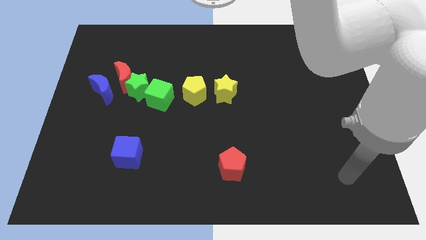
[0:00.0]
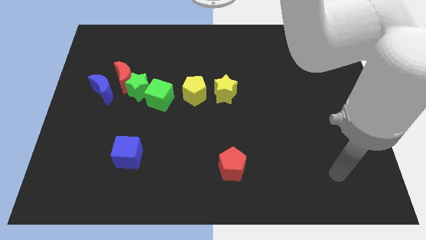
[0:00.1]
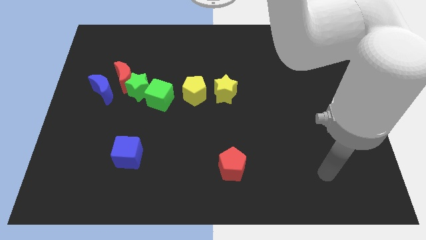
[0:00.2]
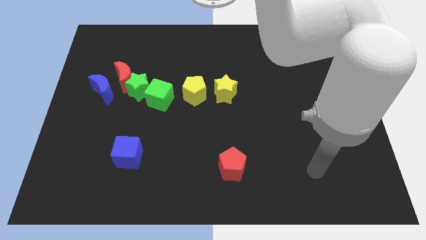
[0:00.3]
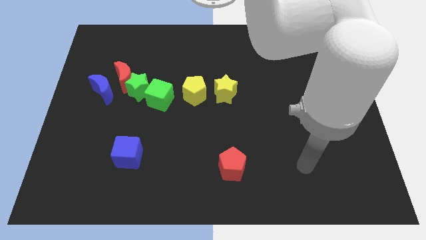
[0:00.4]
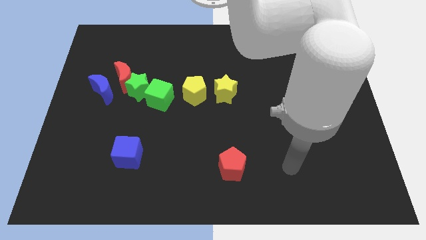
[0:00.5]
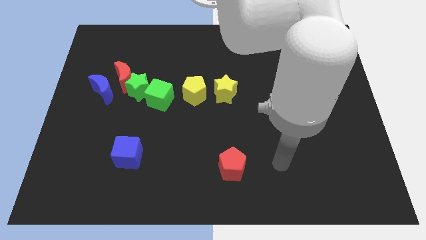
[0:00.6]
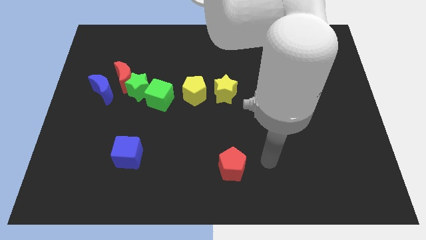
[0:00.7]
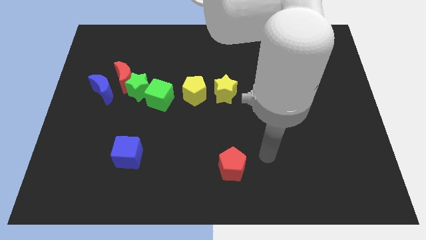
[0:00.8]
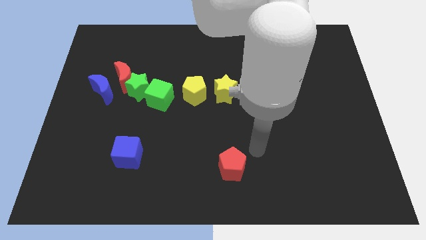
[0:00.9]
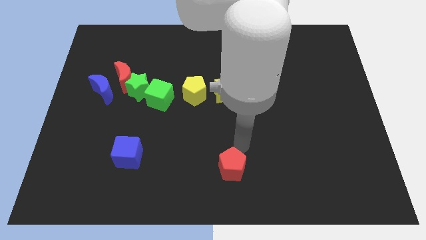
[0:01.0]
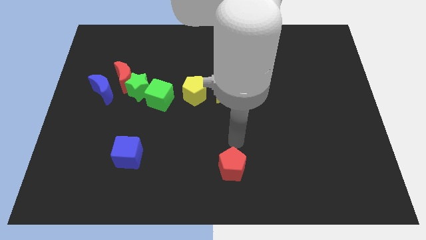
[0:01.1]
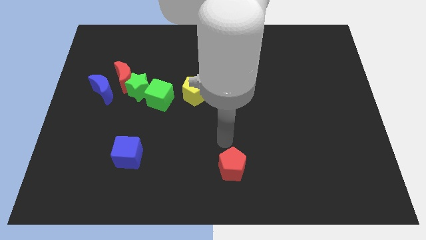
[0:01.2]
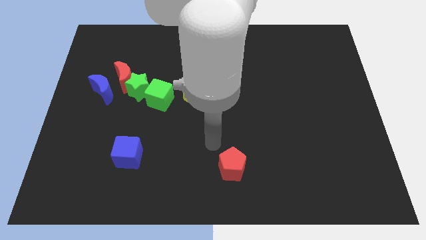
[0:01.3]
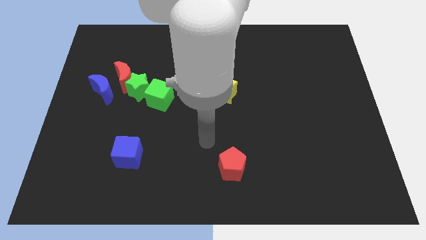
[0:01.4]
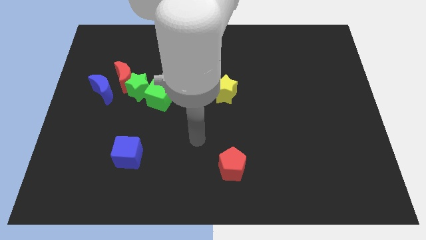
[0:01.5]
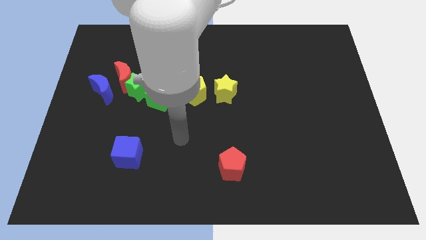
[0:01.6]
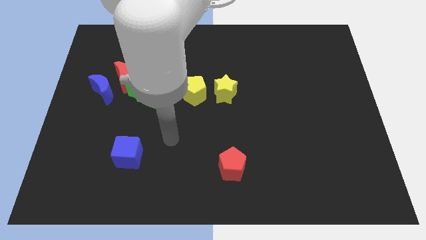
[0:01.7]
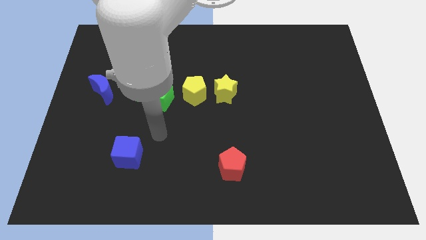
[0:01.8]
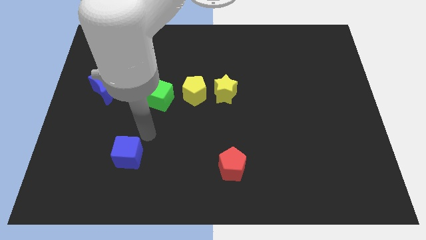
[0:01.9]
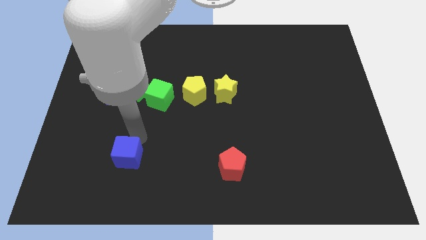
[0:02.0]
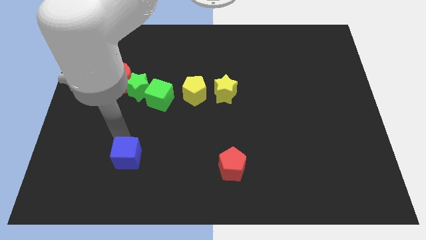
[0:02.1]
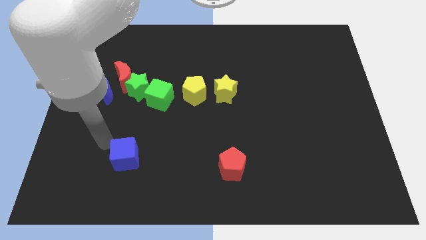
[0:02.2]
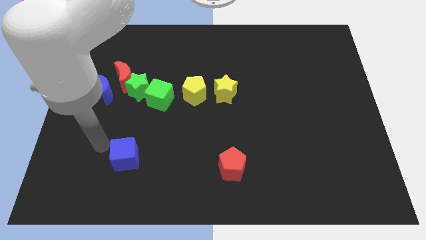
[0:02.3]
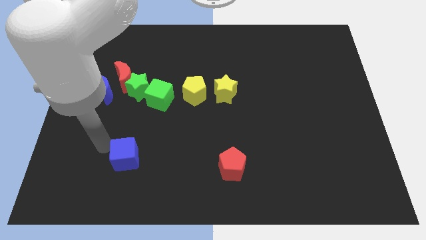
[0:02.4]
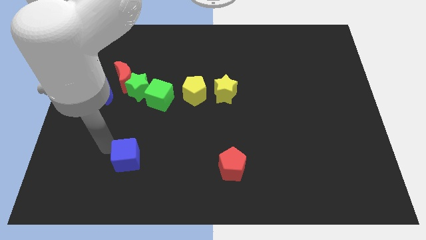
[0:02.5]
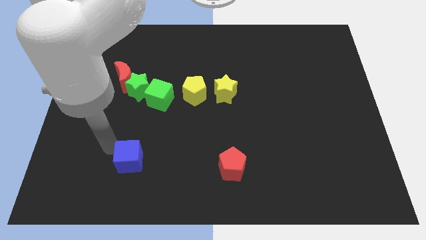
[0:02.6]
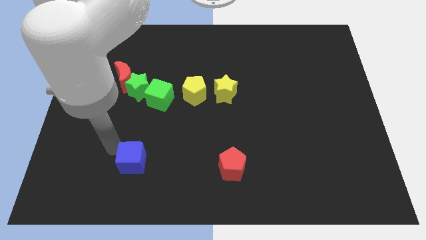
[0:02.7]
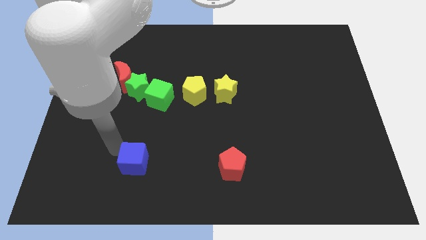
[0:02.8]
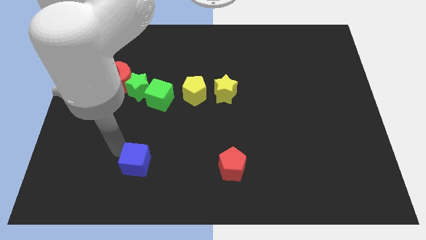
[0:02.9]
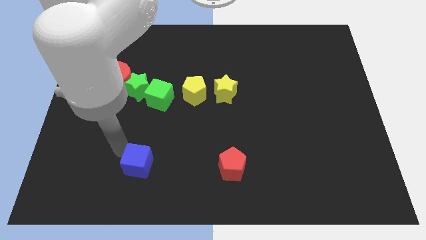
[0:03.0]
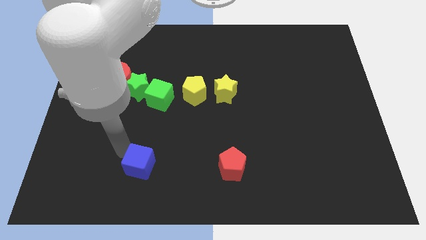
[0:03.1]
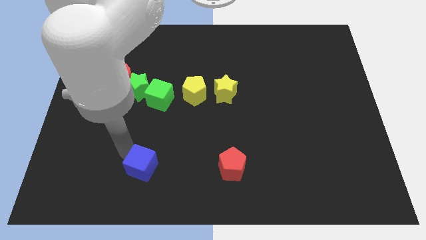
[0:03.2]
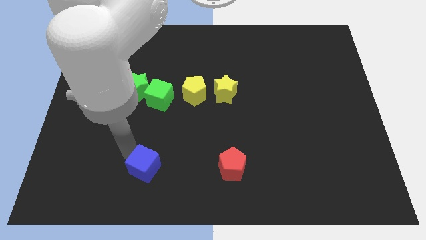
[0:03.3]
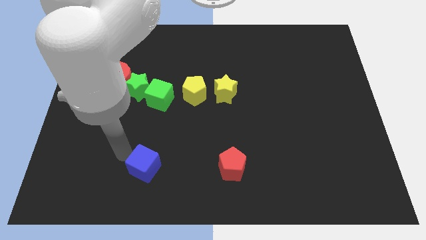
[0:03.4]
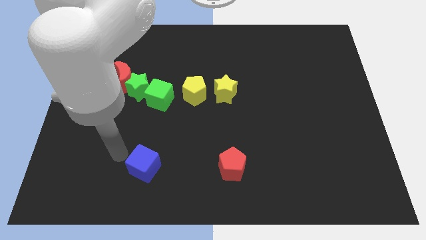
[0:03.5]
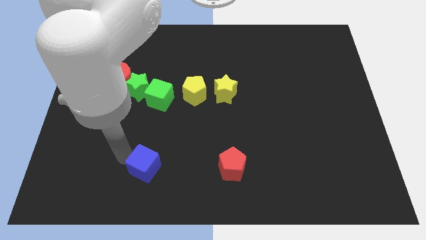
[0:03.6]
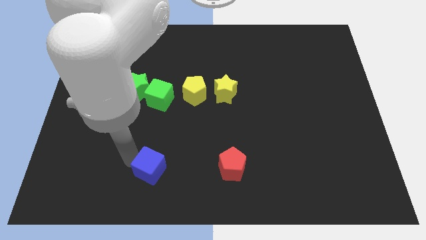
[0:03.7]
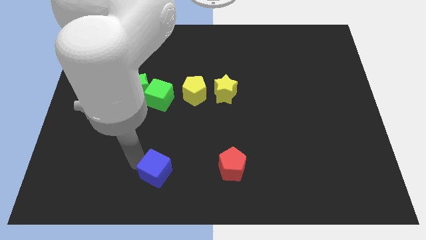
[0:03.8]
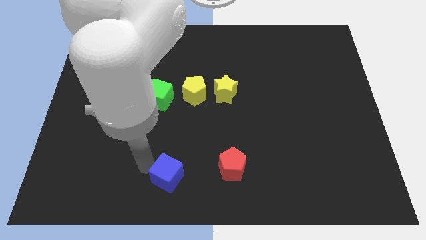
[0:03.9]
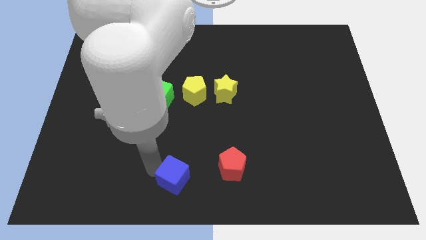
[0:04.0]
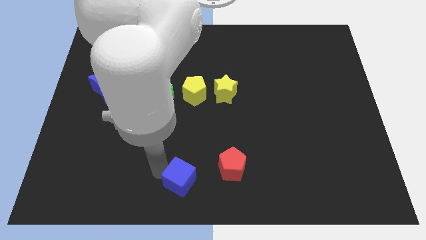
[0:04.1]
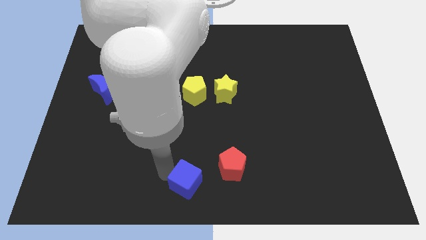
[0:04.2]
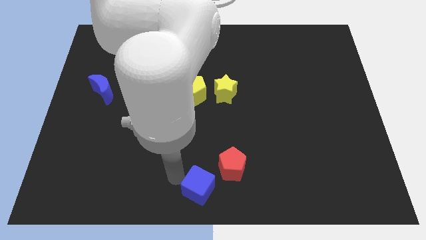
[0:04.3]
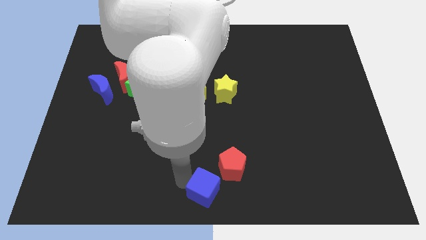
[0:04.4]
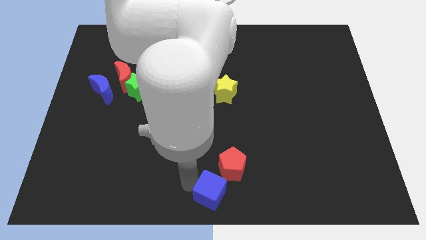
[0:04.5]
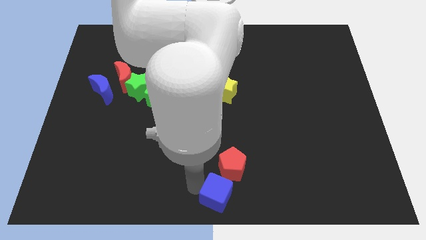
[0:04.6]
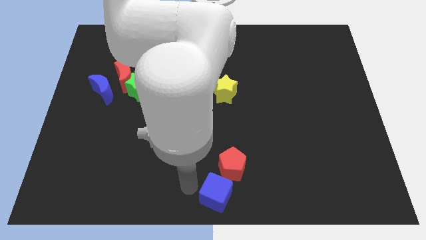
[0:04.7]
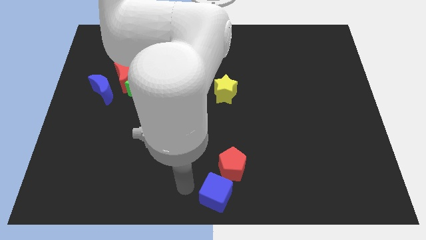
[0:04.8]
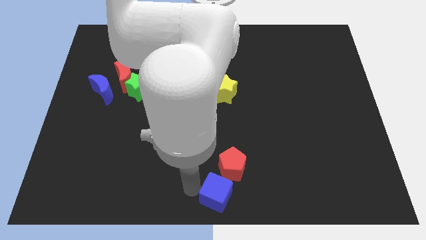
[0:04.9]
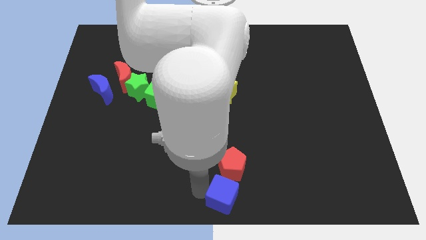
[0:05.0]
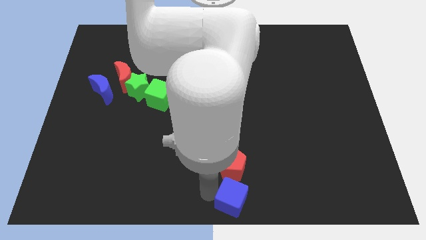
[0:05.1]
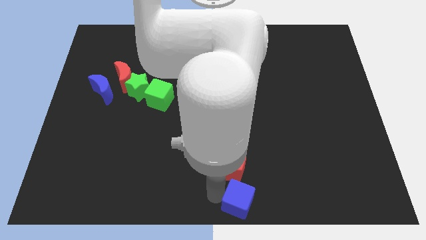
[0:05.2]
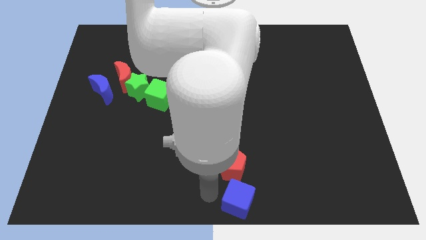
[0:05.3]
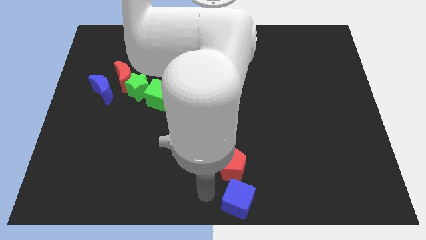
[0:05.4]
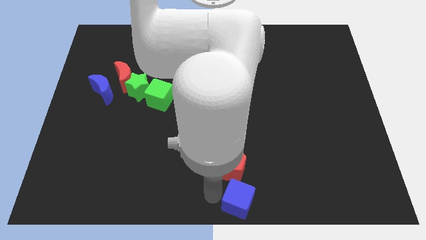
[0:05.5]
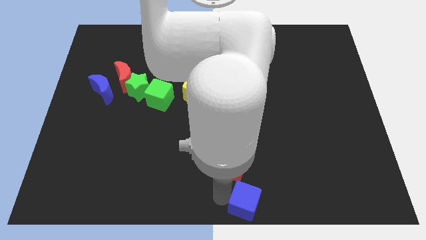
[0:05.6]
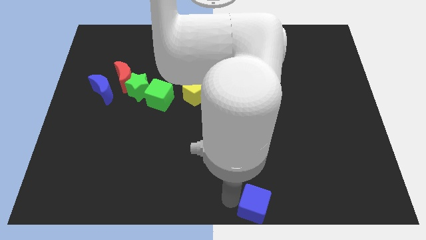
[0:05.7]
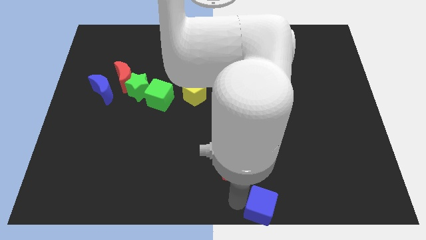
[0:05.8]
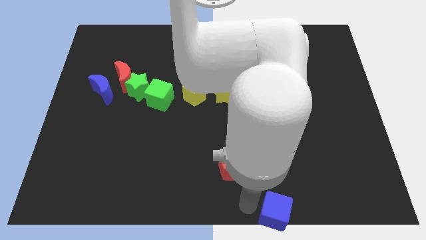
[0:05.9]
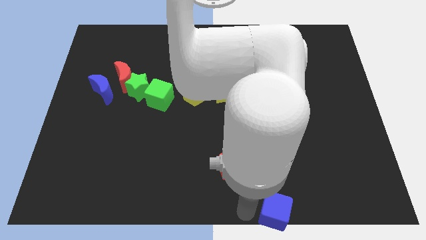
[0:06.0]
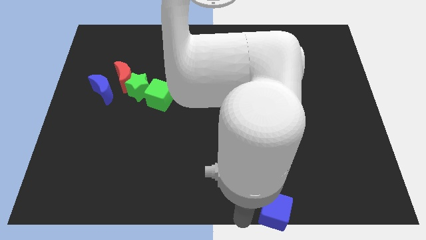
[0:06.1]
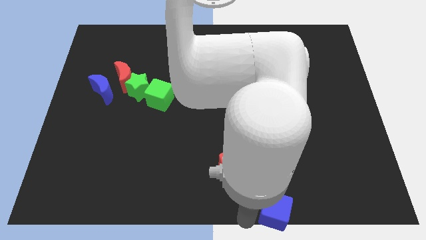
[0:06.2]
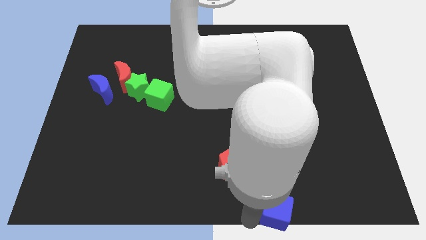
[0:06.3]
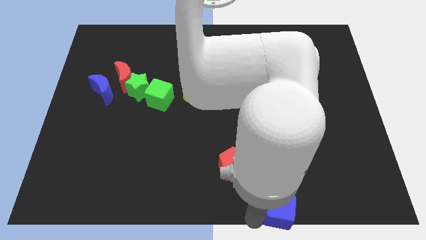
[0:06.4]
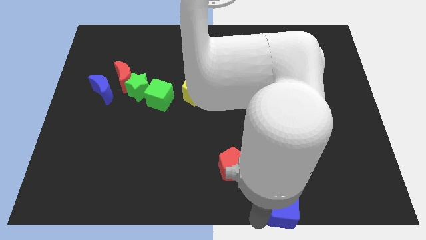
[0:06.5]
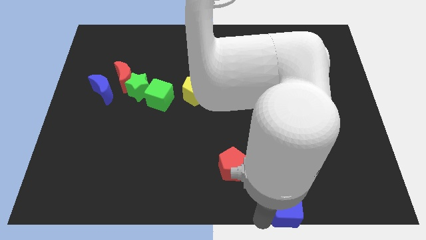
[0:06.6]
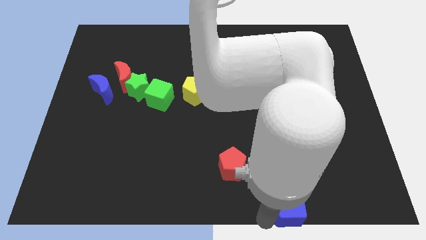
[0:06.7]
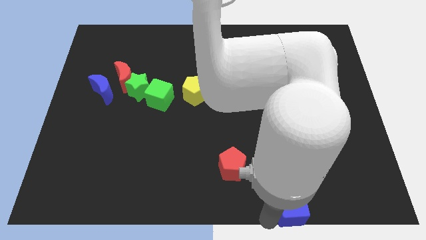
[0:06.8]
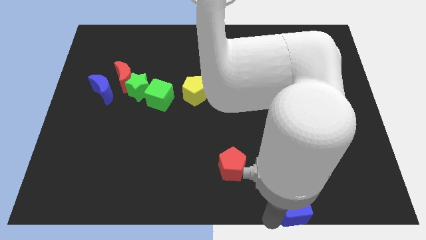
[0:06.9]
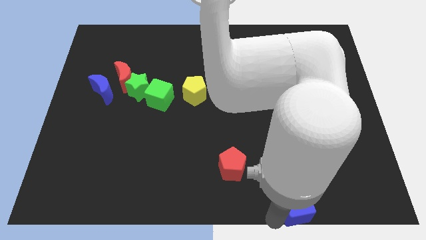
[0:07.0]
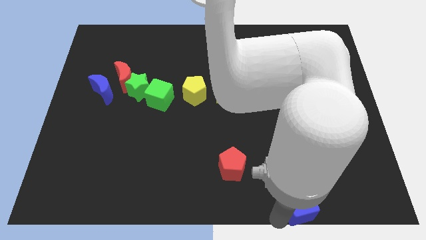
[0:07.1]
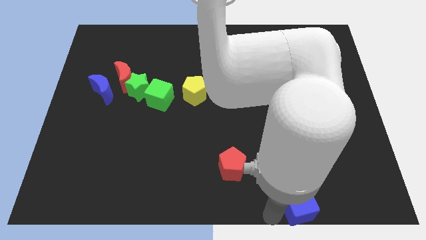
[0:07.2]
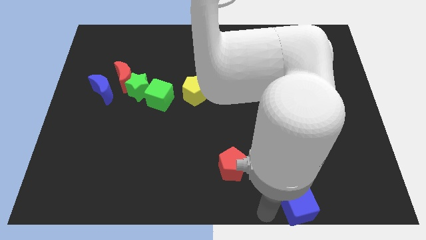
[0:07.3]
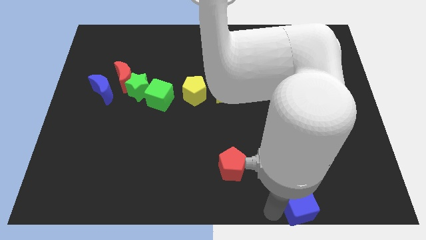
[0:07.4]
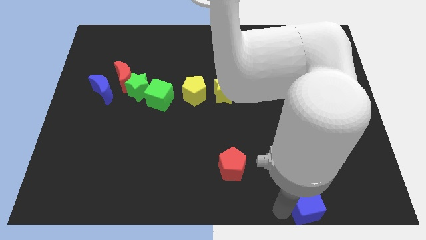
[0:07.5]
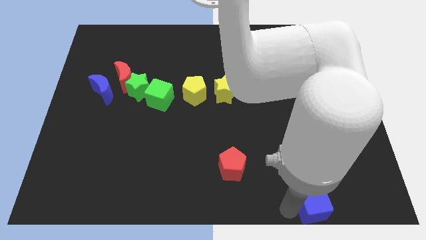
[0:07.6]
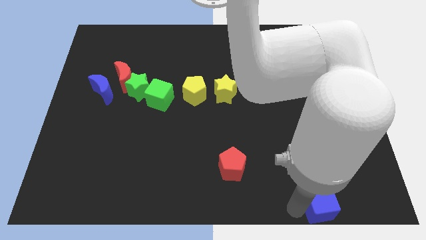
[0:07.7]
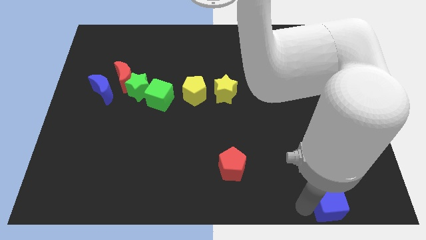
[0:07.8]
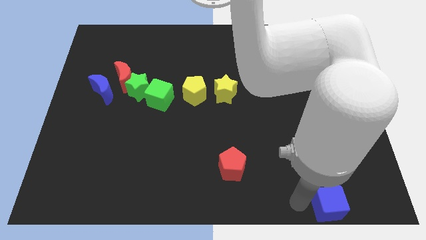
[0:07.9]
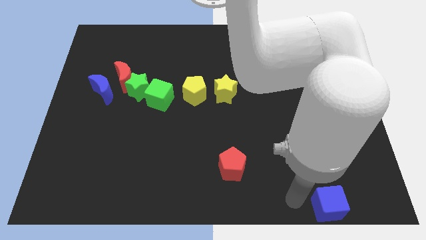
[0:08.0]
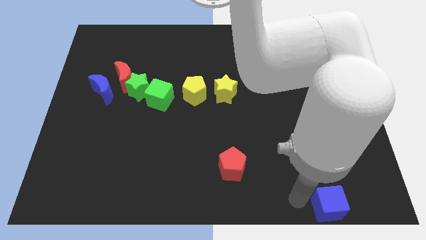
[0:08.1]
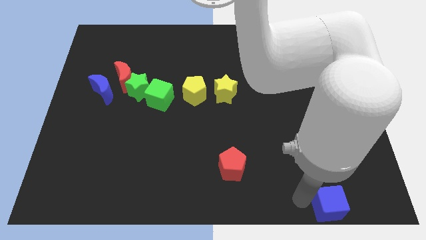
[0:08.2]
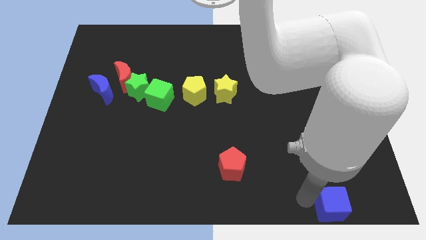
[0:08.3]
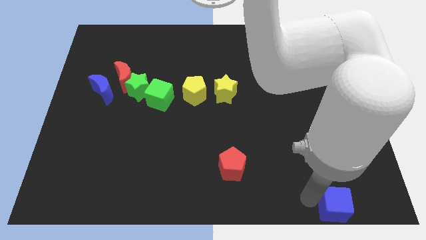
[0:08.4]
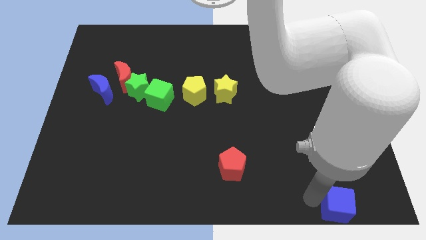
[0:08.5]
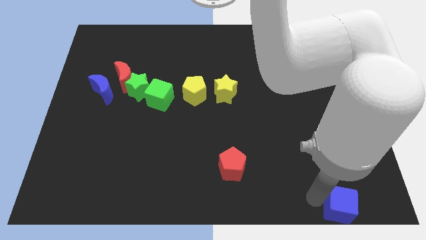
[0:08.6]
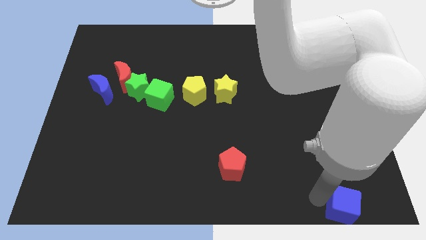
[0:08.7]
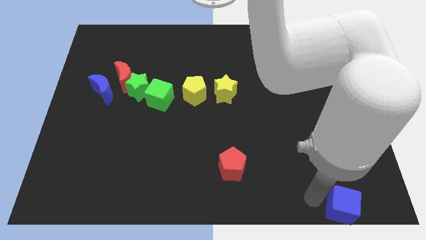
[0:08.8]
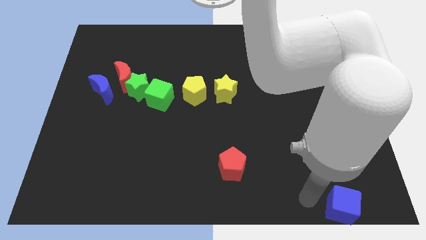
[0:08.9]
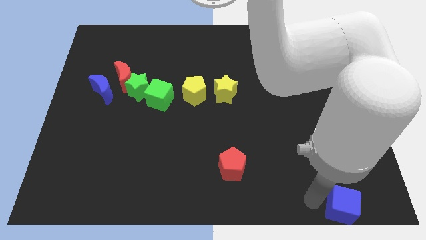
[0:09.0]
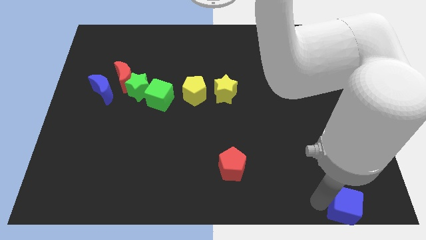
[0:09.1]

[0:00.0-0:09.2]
push the blue cube to the bottom right
